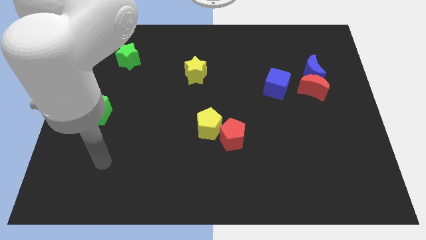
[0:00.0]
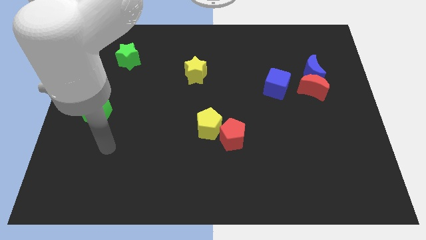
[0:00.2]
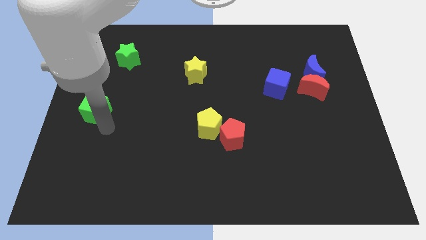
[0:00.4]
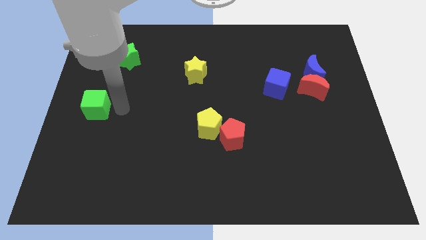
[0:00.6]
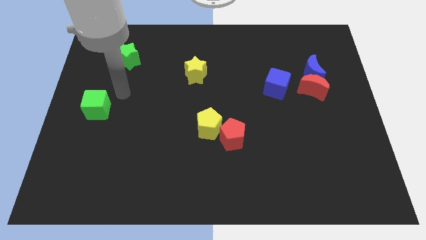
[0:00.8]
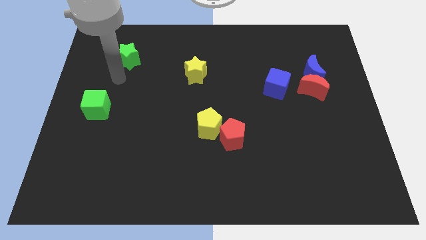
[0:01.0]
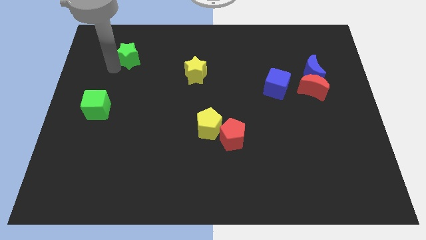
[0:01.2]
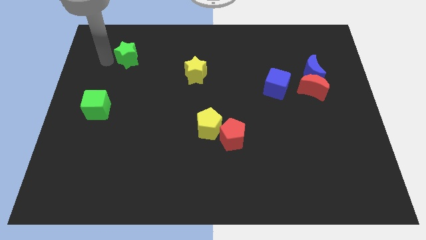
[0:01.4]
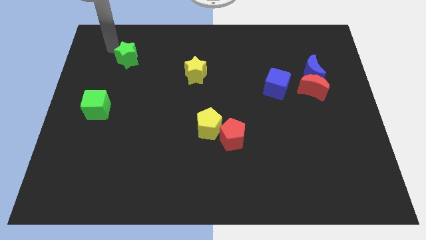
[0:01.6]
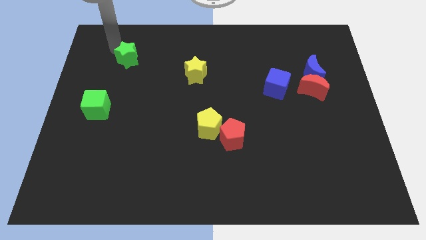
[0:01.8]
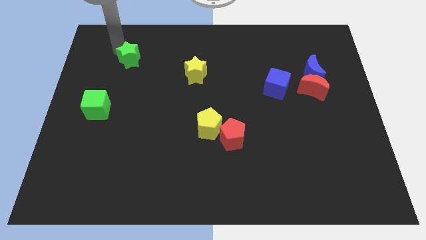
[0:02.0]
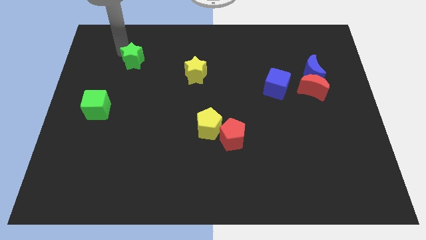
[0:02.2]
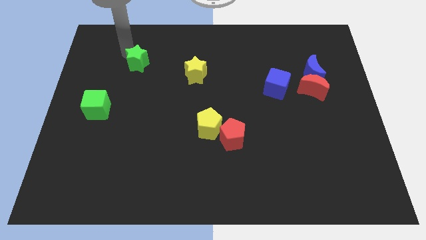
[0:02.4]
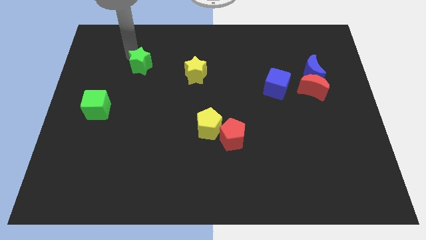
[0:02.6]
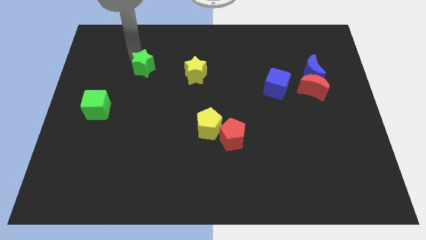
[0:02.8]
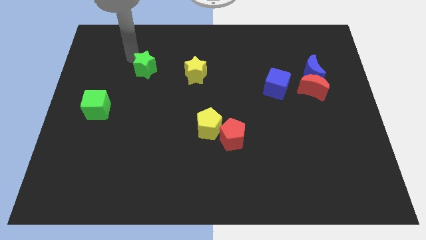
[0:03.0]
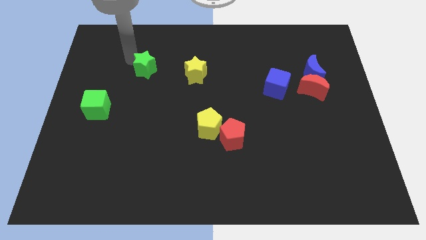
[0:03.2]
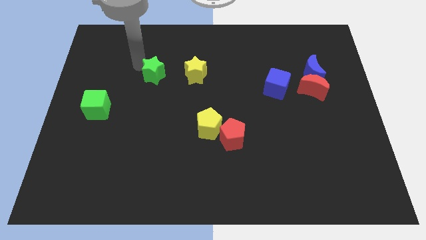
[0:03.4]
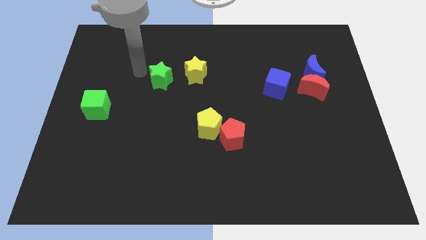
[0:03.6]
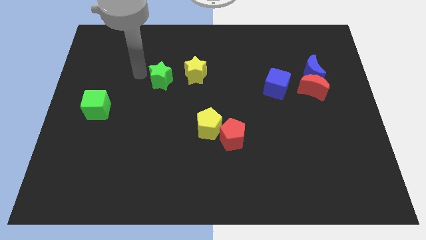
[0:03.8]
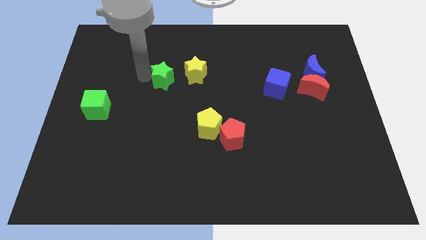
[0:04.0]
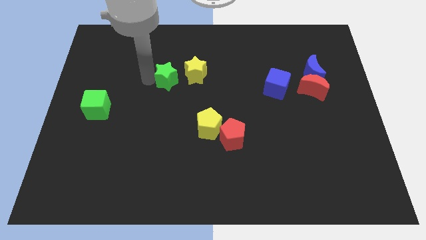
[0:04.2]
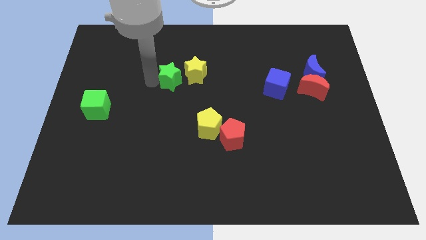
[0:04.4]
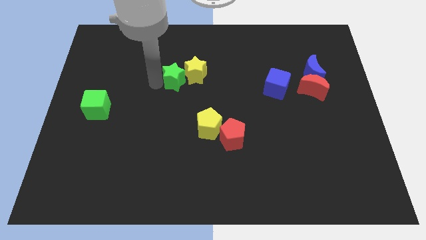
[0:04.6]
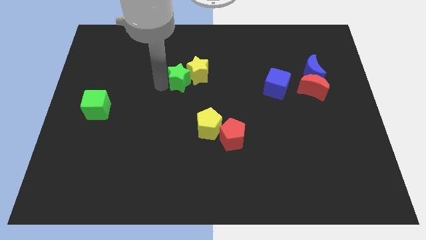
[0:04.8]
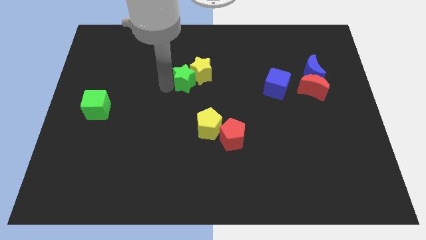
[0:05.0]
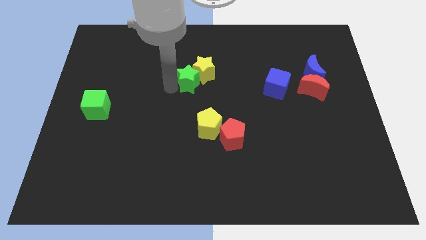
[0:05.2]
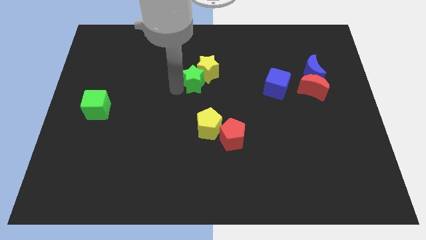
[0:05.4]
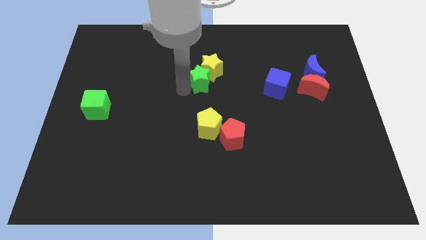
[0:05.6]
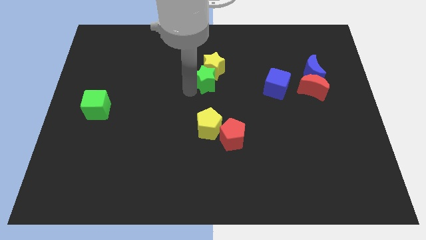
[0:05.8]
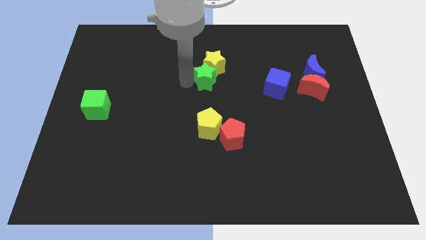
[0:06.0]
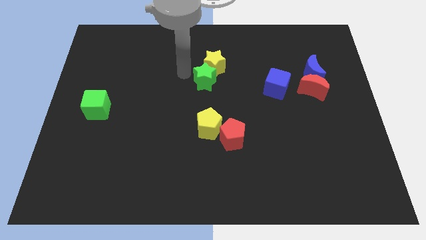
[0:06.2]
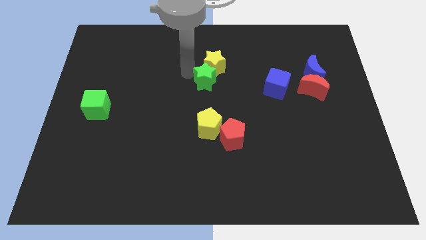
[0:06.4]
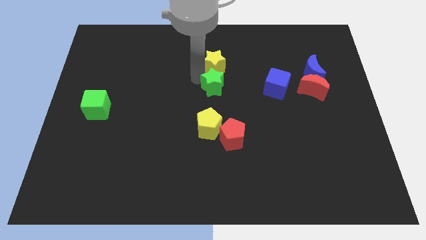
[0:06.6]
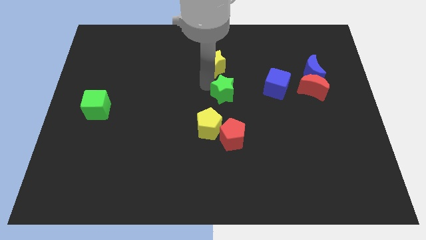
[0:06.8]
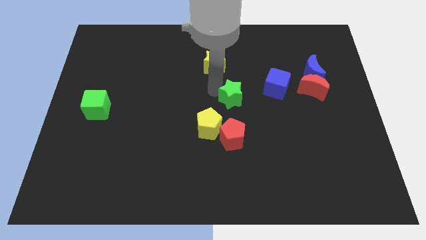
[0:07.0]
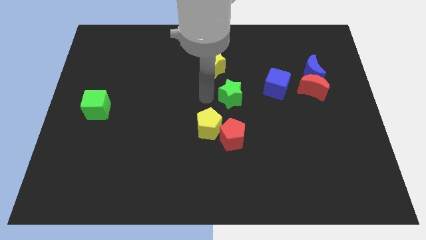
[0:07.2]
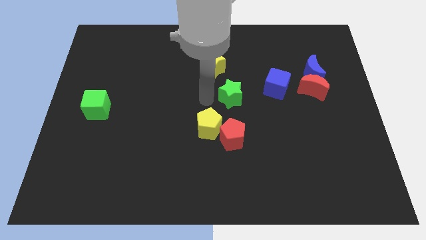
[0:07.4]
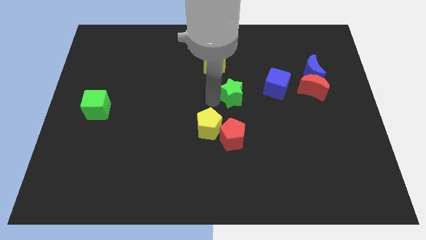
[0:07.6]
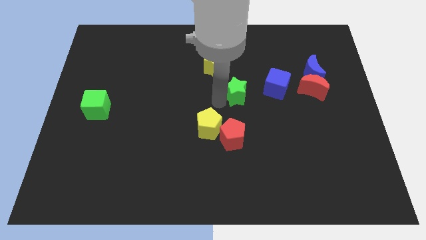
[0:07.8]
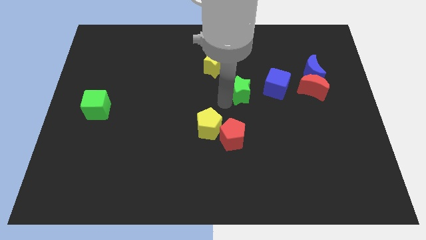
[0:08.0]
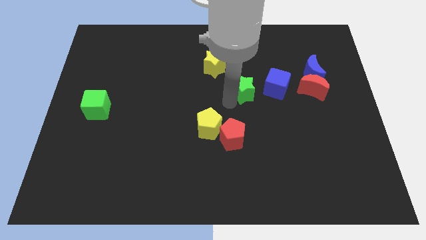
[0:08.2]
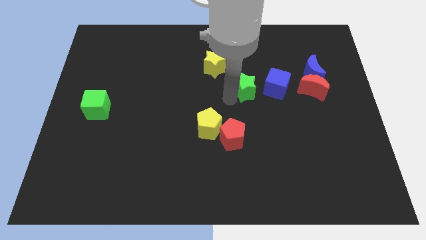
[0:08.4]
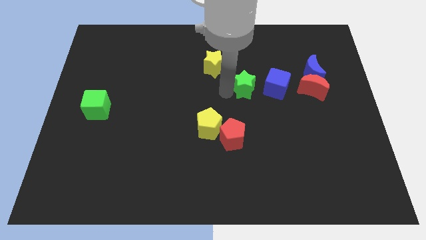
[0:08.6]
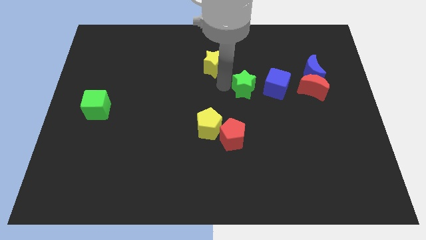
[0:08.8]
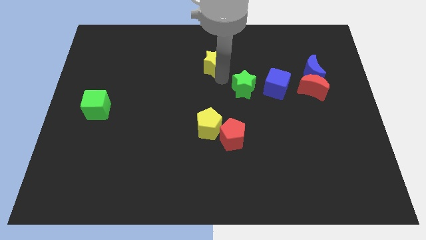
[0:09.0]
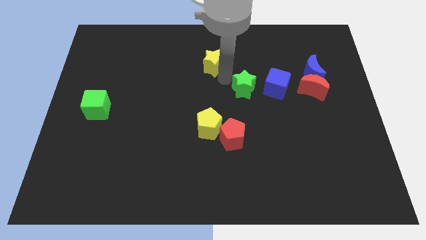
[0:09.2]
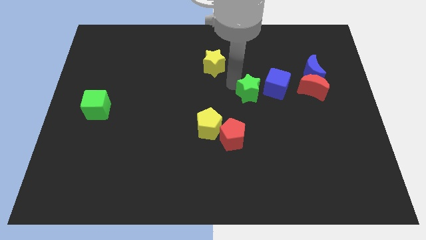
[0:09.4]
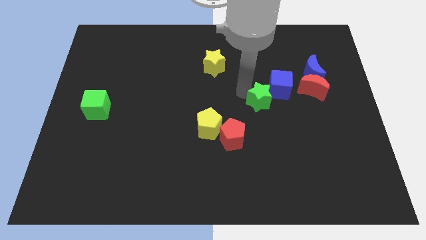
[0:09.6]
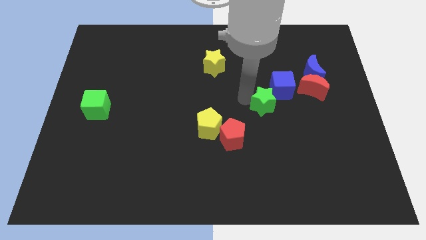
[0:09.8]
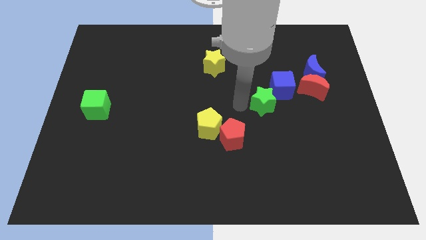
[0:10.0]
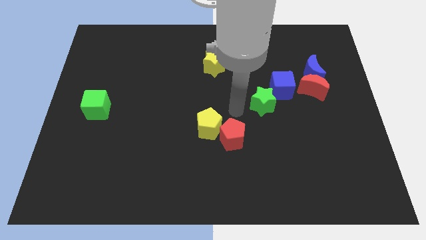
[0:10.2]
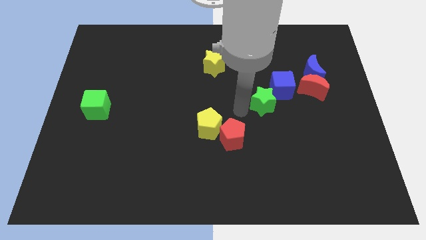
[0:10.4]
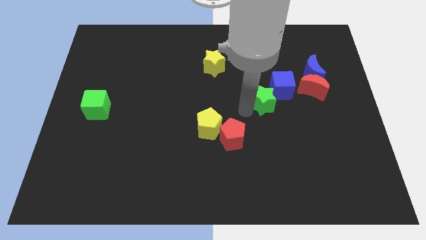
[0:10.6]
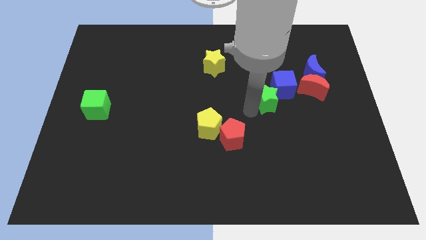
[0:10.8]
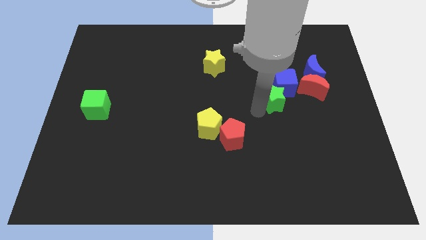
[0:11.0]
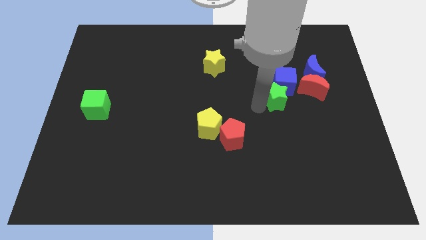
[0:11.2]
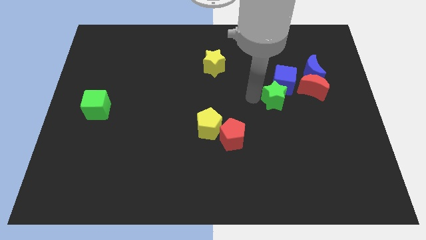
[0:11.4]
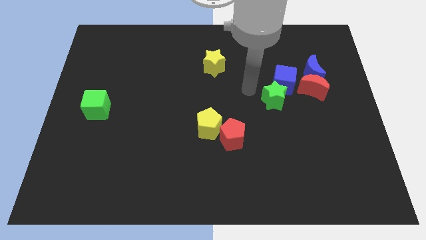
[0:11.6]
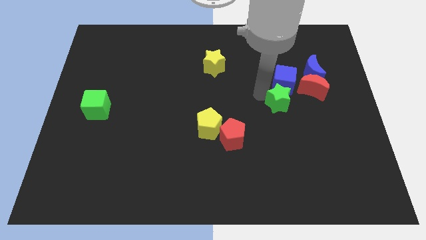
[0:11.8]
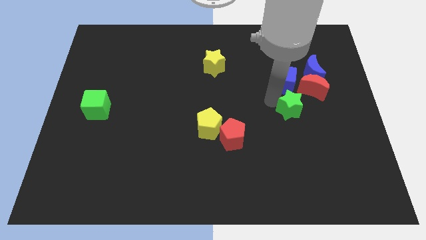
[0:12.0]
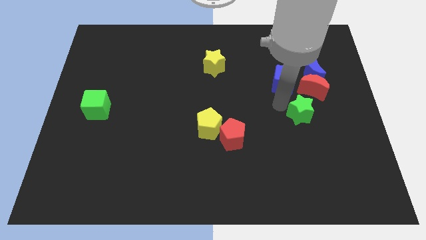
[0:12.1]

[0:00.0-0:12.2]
put the green star below the red moon
